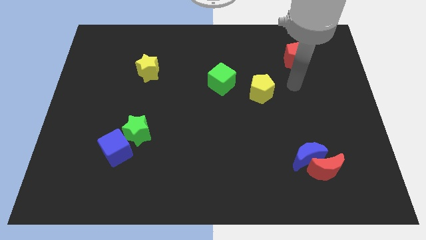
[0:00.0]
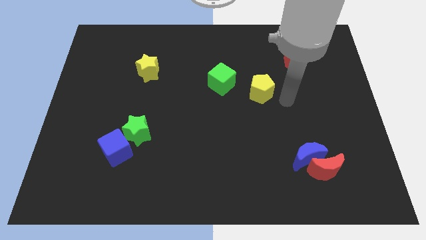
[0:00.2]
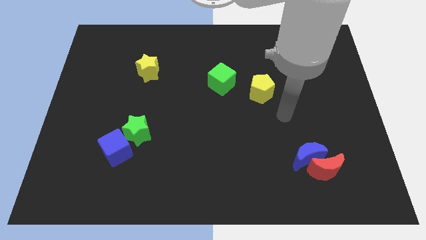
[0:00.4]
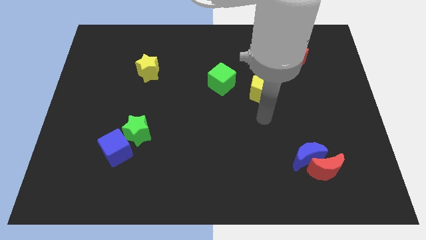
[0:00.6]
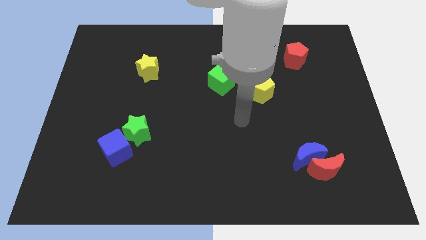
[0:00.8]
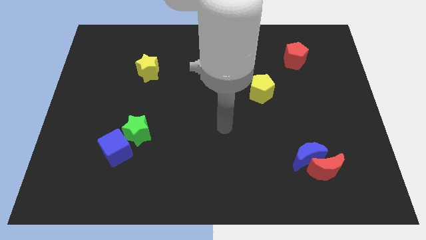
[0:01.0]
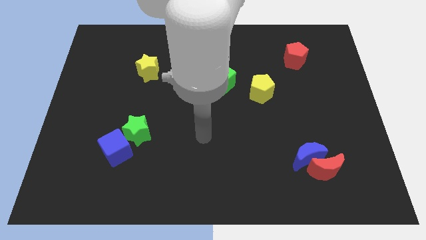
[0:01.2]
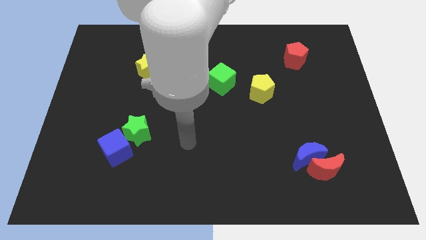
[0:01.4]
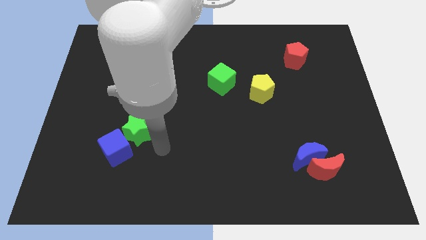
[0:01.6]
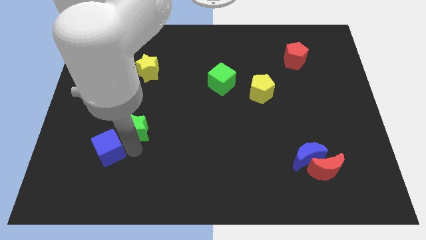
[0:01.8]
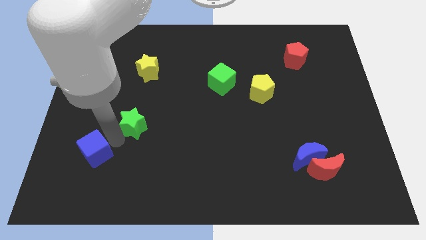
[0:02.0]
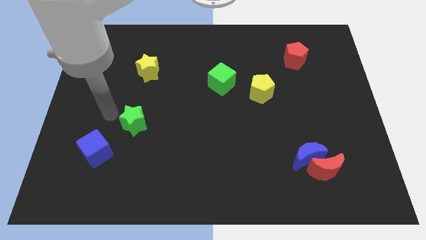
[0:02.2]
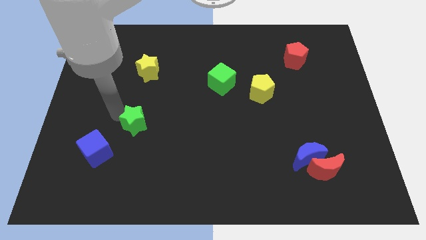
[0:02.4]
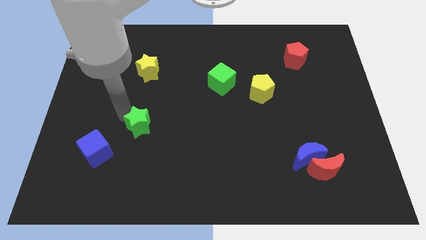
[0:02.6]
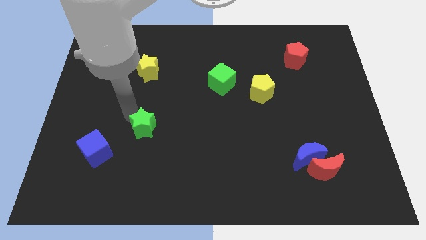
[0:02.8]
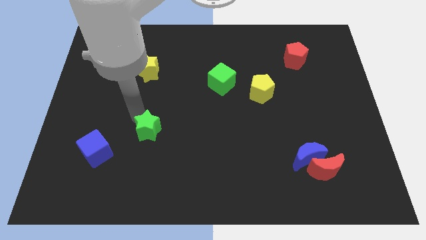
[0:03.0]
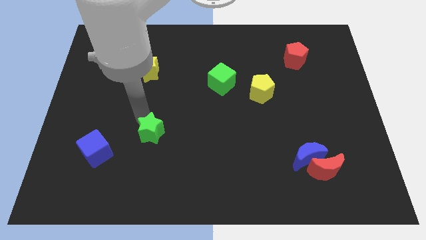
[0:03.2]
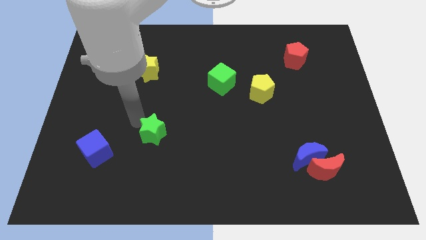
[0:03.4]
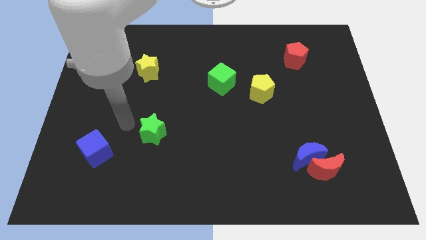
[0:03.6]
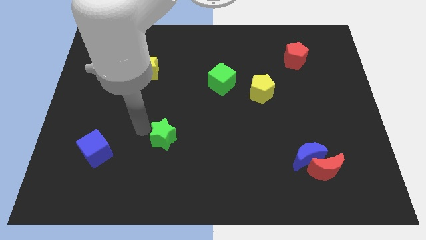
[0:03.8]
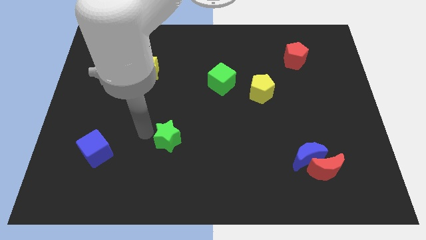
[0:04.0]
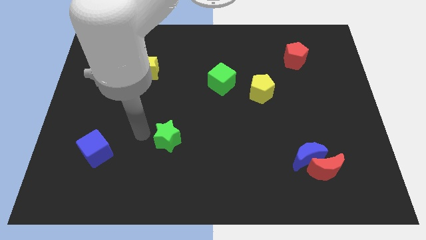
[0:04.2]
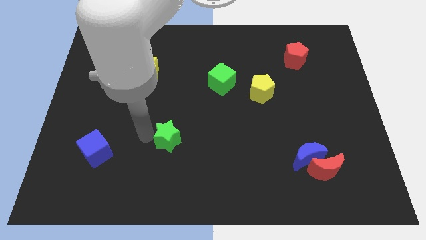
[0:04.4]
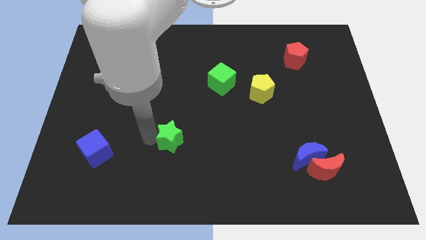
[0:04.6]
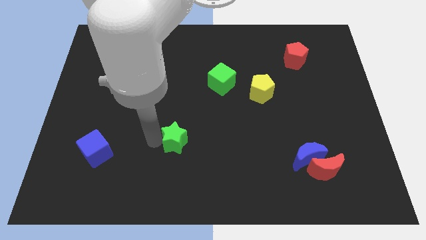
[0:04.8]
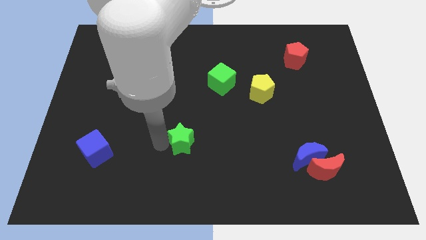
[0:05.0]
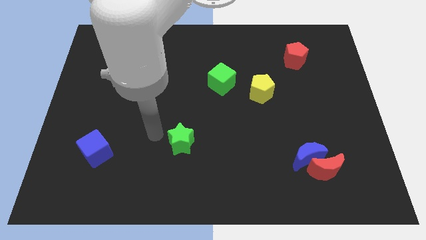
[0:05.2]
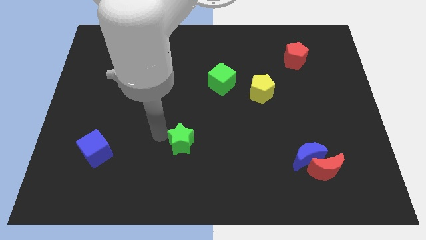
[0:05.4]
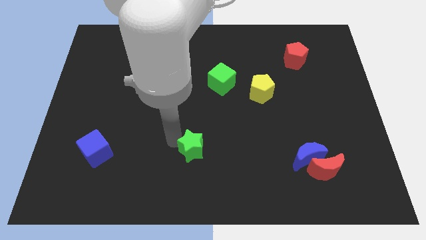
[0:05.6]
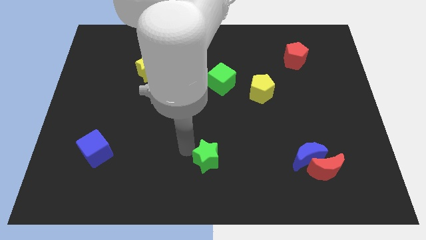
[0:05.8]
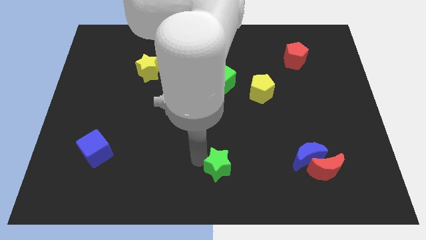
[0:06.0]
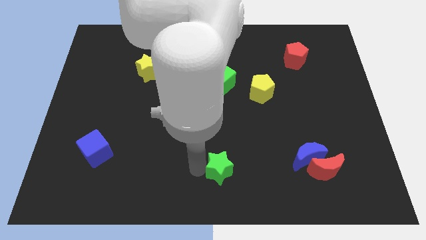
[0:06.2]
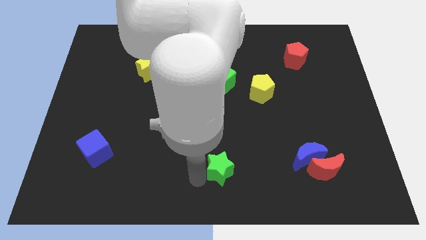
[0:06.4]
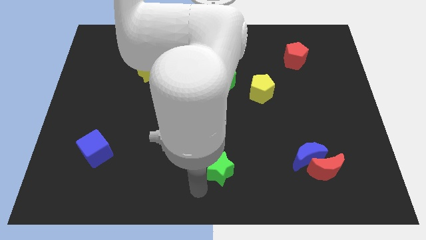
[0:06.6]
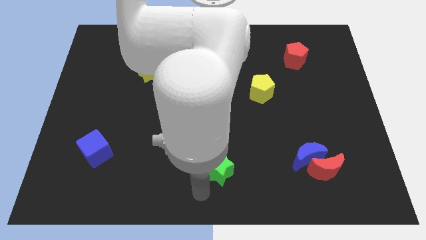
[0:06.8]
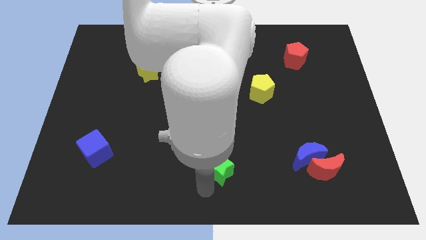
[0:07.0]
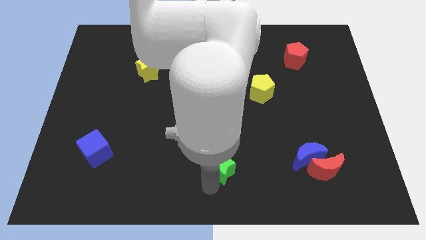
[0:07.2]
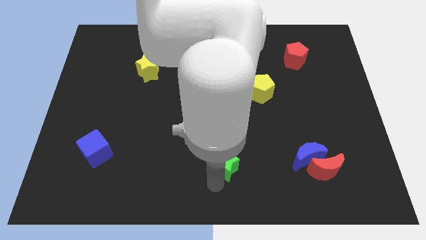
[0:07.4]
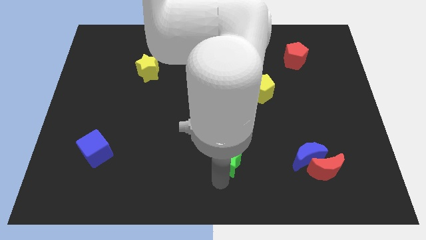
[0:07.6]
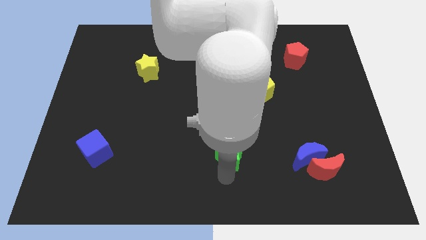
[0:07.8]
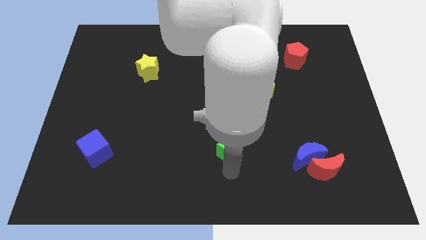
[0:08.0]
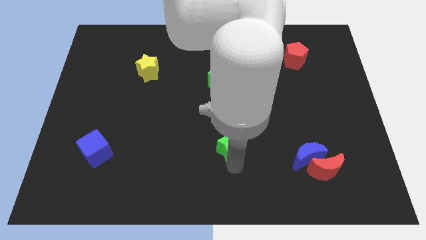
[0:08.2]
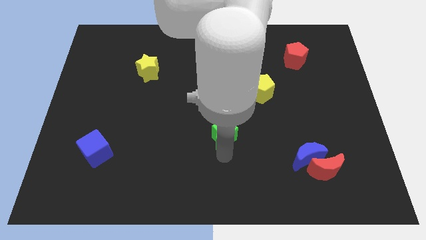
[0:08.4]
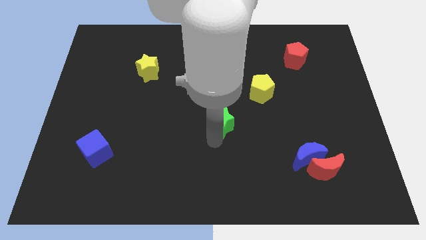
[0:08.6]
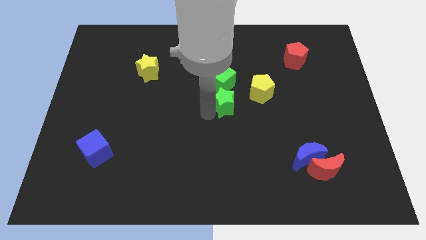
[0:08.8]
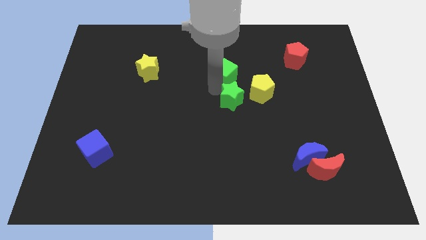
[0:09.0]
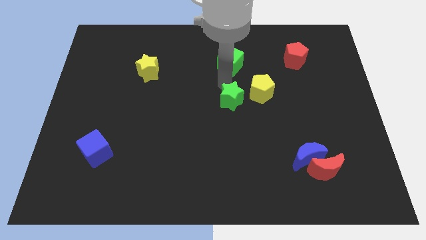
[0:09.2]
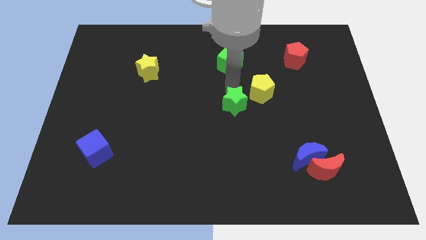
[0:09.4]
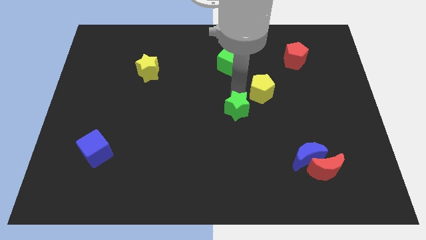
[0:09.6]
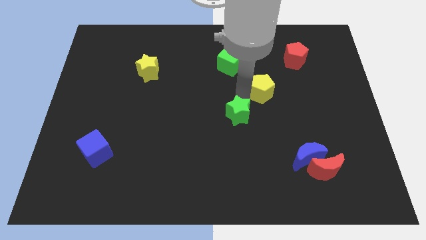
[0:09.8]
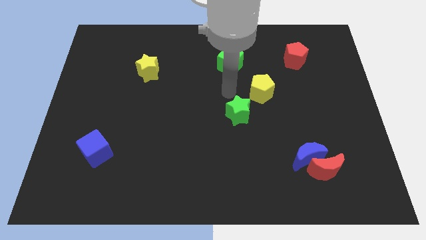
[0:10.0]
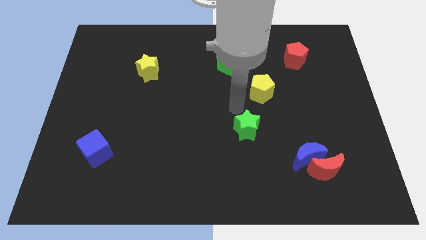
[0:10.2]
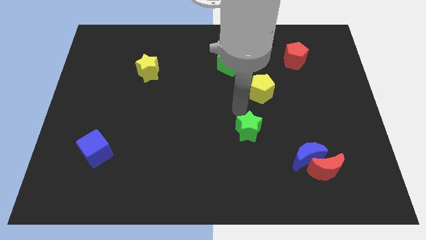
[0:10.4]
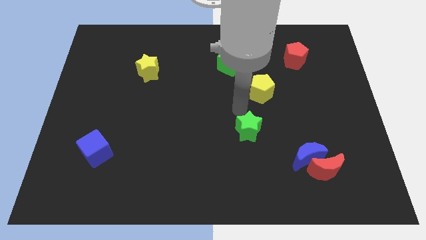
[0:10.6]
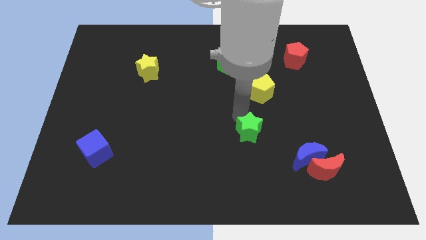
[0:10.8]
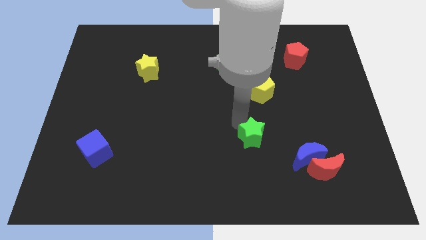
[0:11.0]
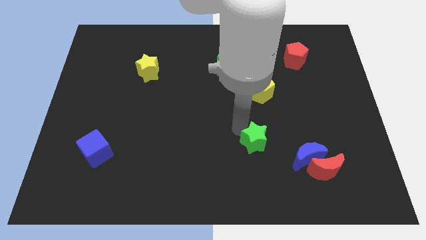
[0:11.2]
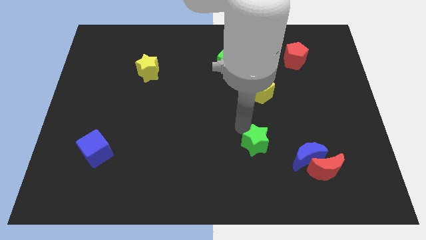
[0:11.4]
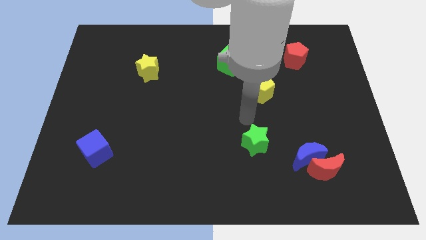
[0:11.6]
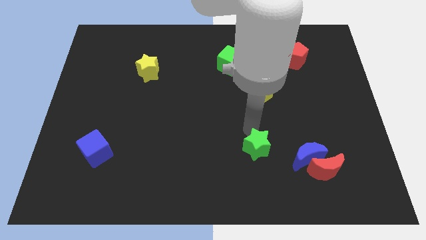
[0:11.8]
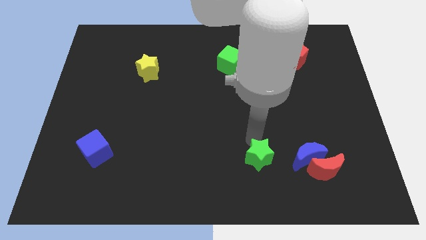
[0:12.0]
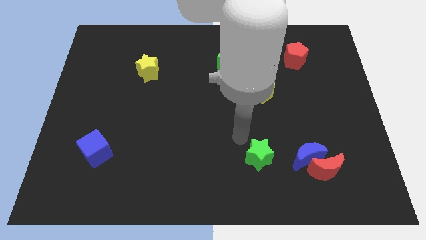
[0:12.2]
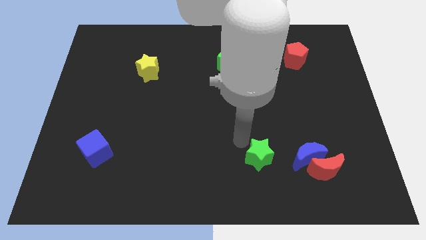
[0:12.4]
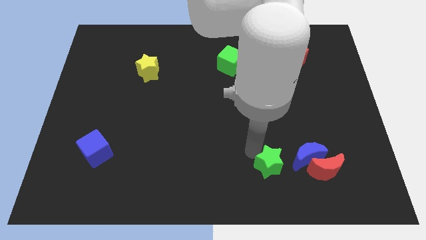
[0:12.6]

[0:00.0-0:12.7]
slide the green star diagonally down and to the left of the blue moon

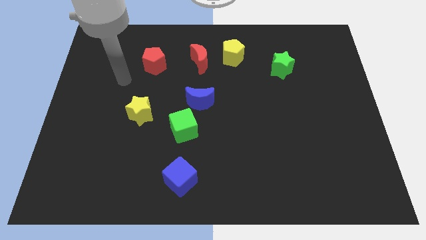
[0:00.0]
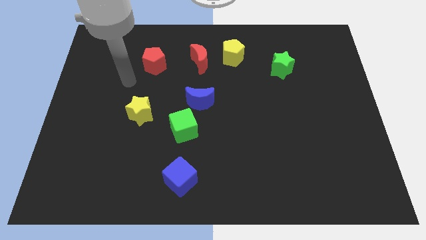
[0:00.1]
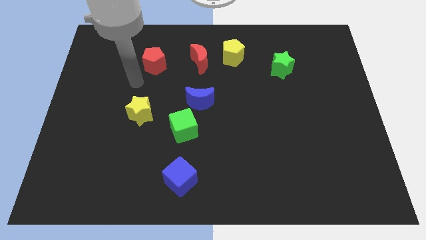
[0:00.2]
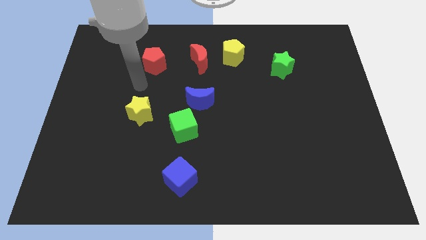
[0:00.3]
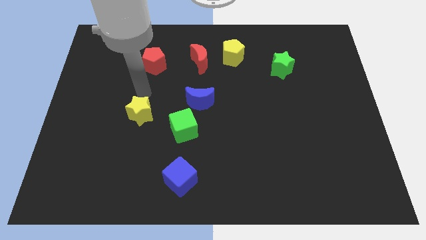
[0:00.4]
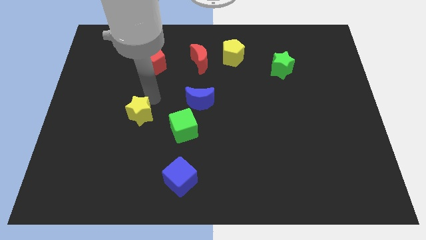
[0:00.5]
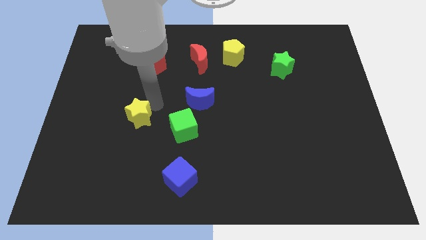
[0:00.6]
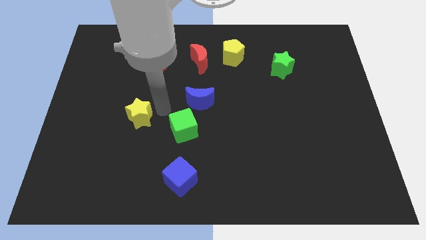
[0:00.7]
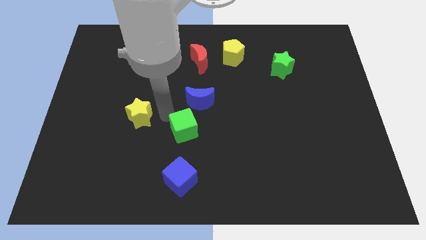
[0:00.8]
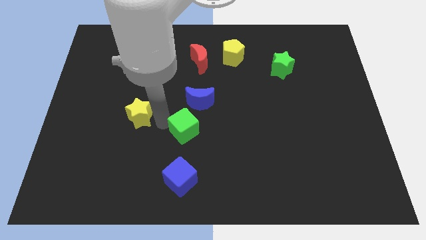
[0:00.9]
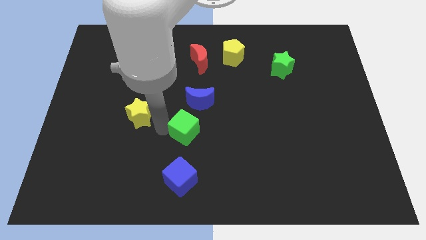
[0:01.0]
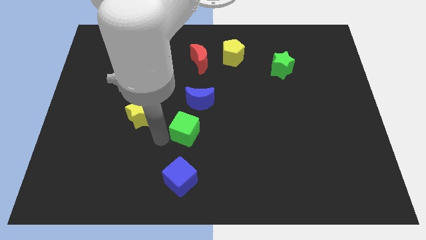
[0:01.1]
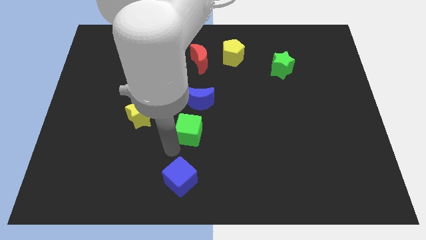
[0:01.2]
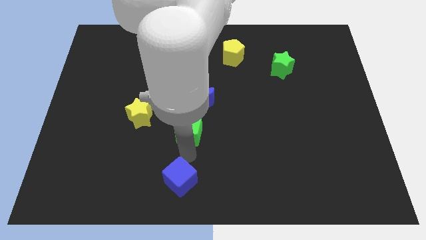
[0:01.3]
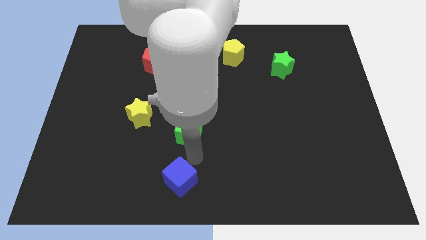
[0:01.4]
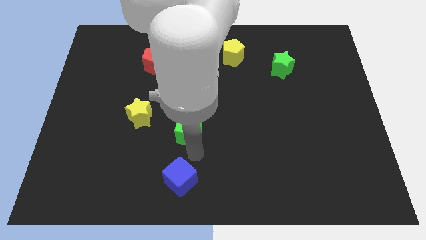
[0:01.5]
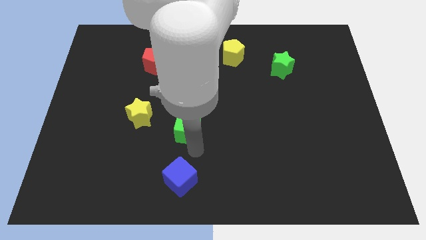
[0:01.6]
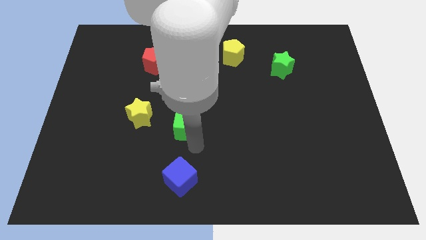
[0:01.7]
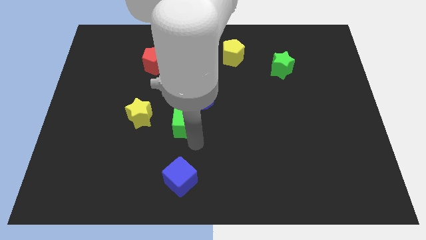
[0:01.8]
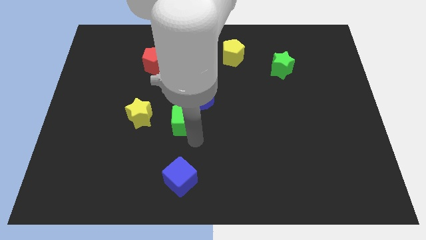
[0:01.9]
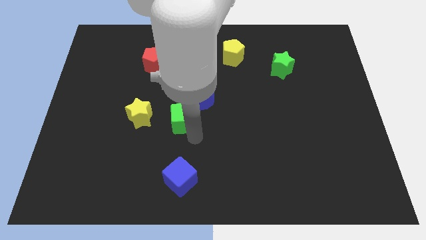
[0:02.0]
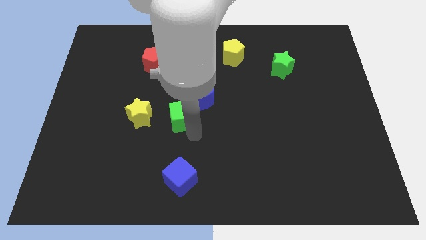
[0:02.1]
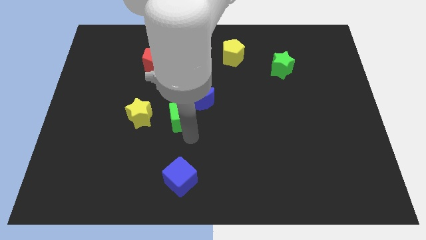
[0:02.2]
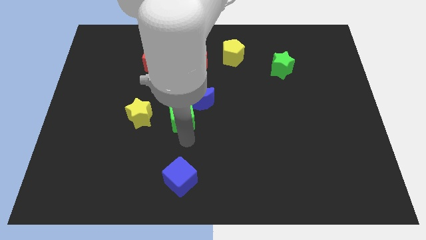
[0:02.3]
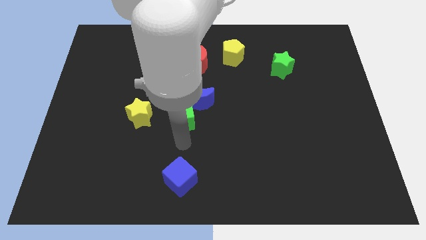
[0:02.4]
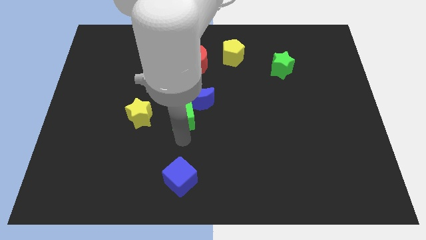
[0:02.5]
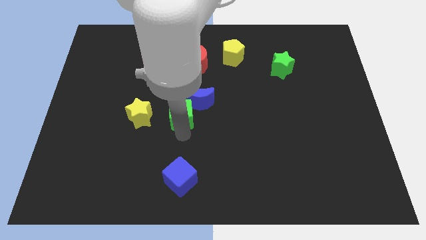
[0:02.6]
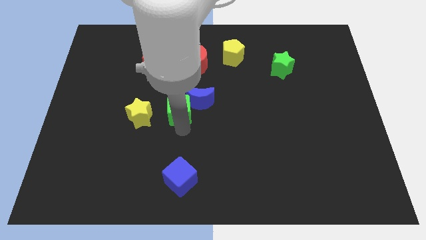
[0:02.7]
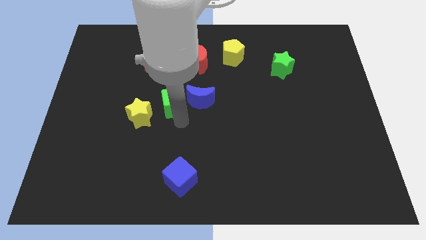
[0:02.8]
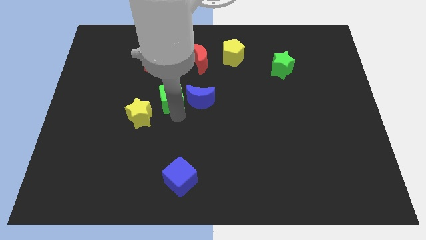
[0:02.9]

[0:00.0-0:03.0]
push the green cube to the top left of the blue moon
